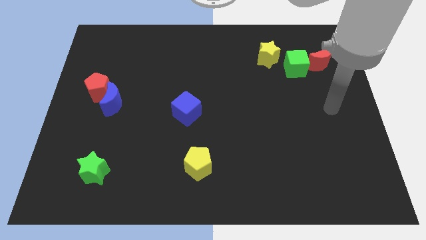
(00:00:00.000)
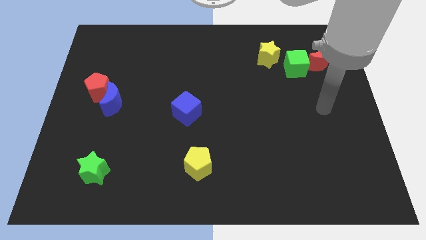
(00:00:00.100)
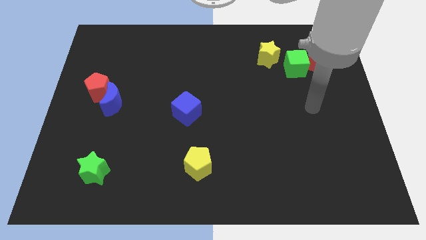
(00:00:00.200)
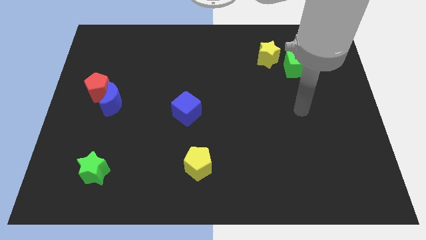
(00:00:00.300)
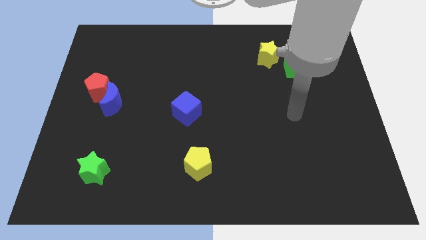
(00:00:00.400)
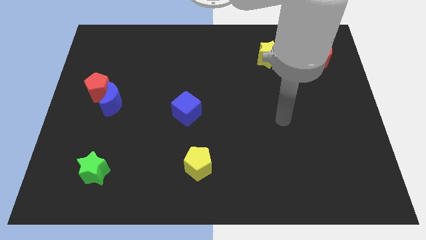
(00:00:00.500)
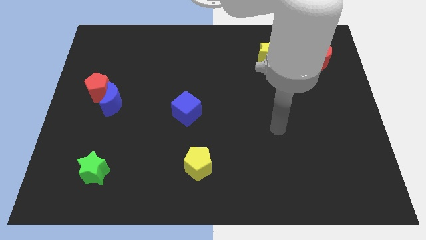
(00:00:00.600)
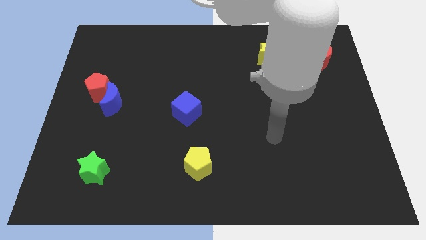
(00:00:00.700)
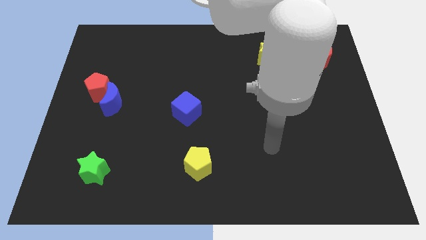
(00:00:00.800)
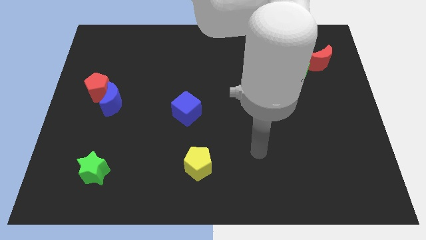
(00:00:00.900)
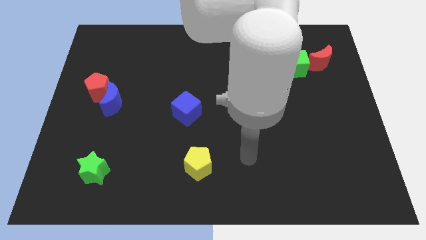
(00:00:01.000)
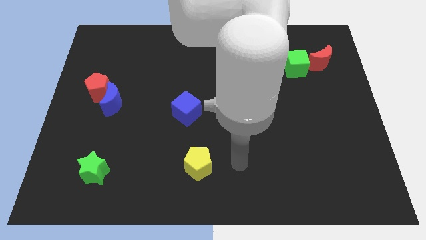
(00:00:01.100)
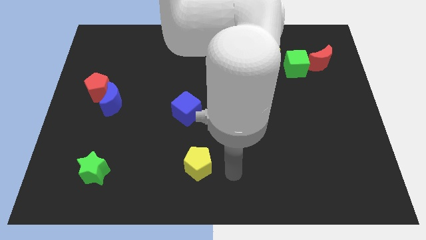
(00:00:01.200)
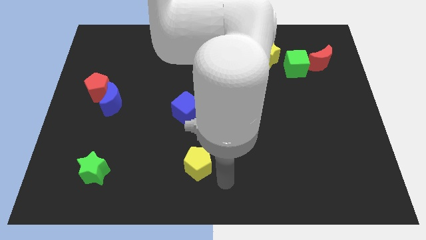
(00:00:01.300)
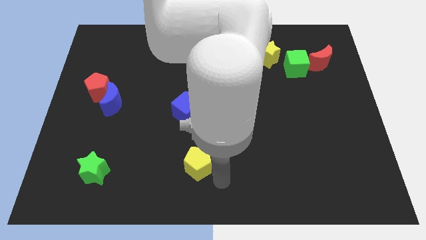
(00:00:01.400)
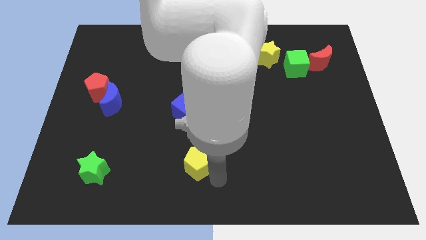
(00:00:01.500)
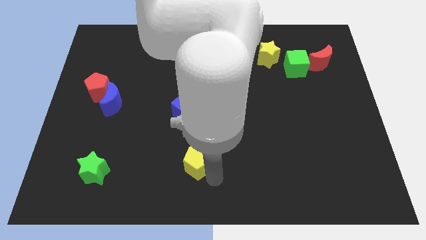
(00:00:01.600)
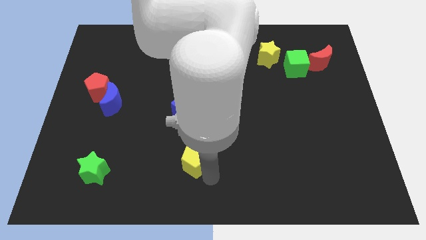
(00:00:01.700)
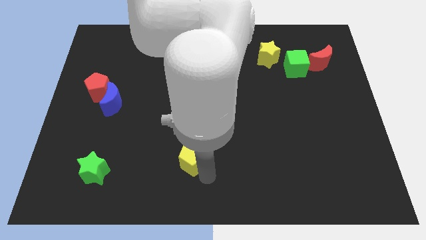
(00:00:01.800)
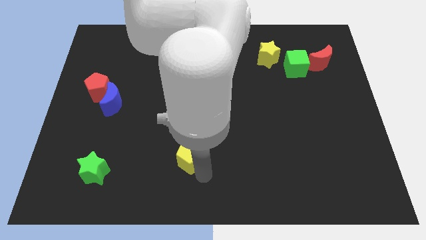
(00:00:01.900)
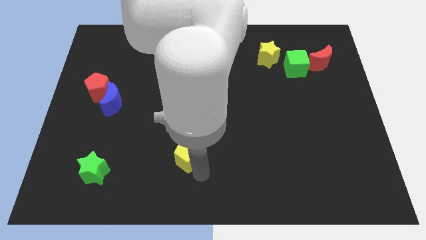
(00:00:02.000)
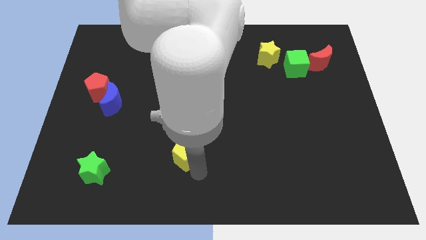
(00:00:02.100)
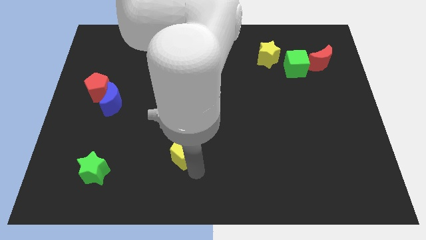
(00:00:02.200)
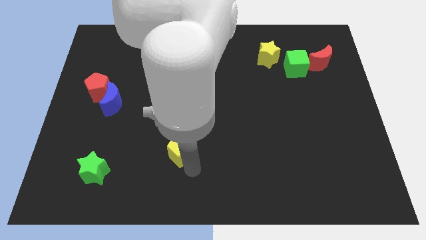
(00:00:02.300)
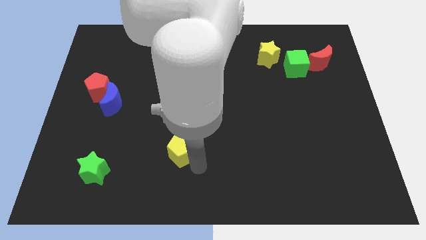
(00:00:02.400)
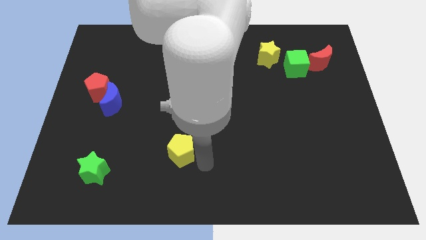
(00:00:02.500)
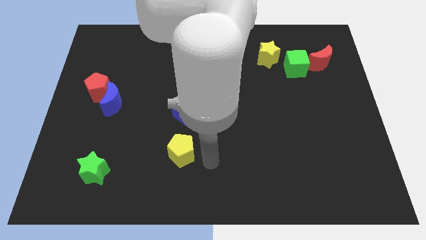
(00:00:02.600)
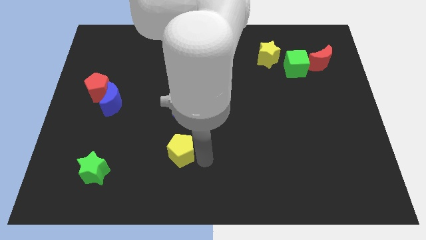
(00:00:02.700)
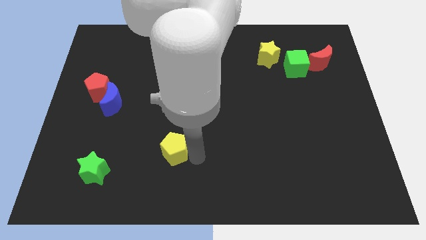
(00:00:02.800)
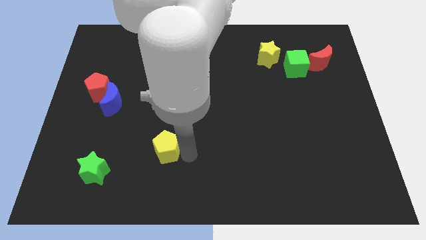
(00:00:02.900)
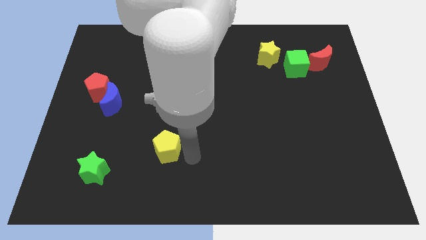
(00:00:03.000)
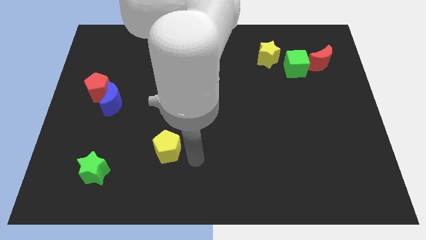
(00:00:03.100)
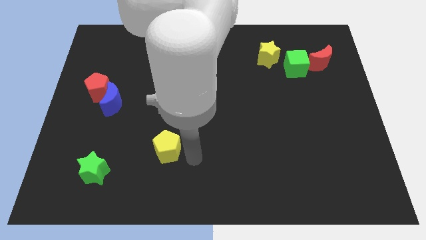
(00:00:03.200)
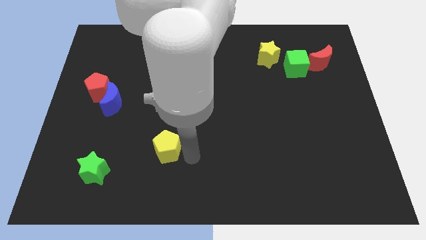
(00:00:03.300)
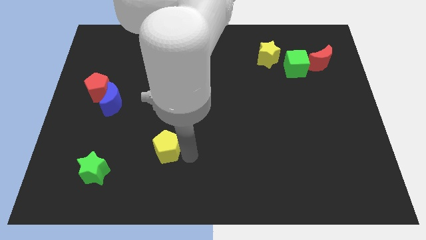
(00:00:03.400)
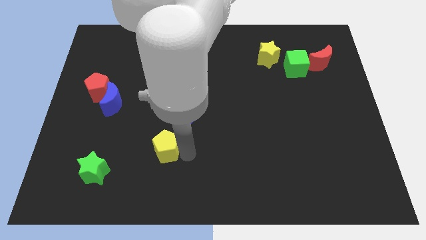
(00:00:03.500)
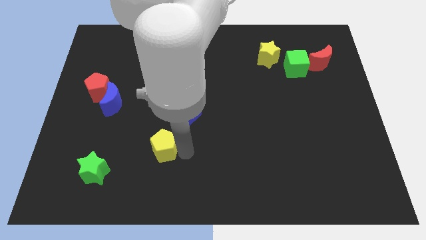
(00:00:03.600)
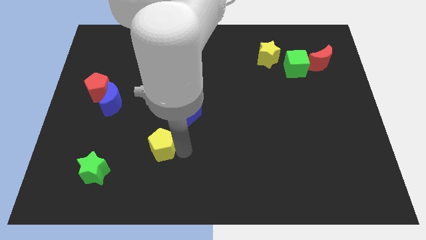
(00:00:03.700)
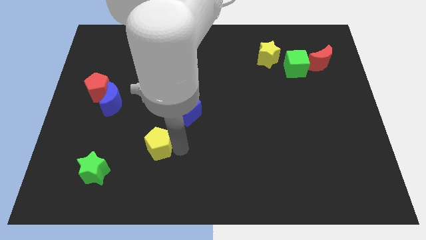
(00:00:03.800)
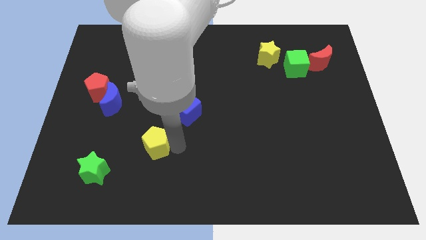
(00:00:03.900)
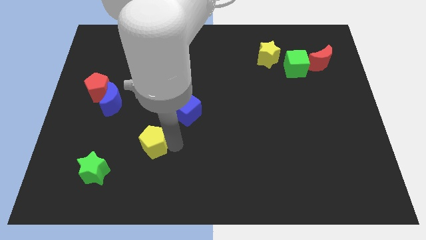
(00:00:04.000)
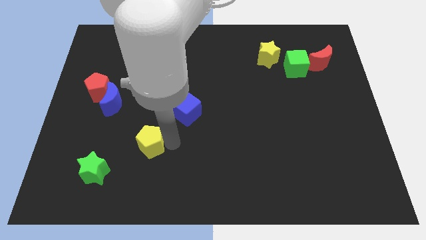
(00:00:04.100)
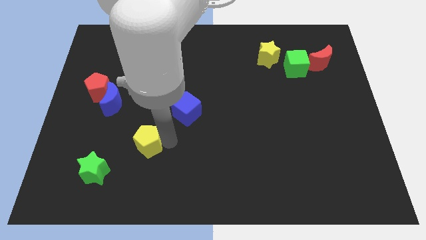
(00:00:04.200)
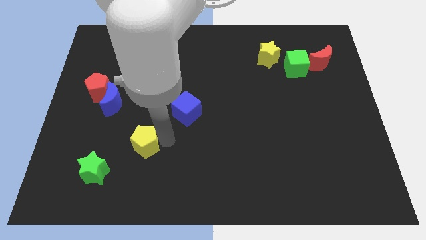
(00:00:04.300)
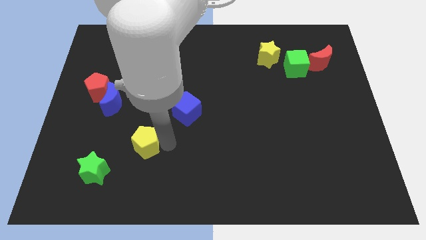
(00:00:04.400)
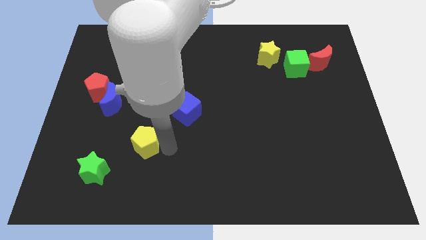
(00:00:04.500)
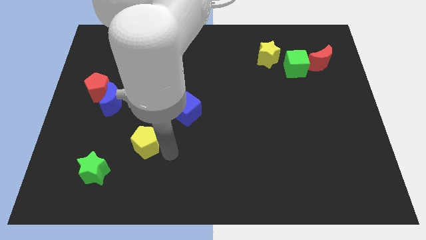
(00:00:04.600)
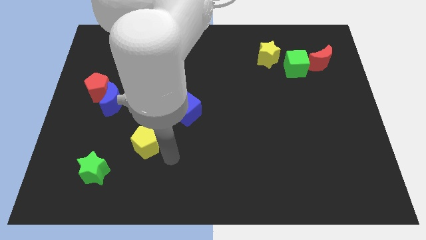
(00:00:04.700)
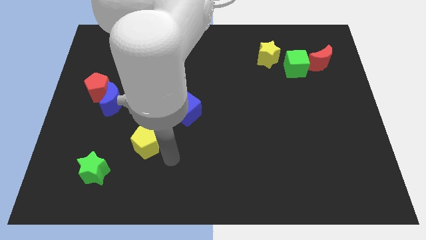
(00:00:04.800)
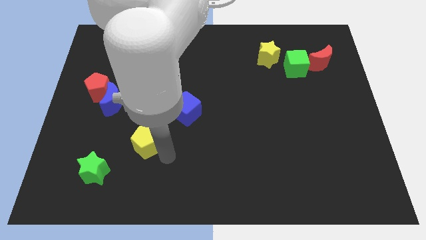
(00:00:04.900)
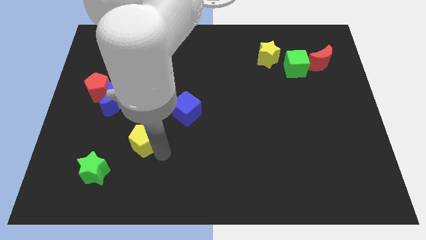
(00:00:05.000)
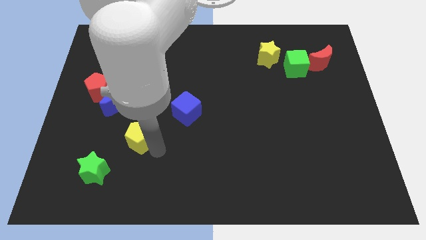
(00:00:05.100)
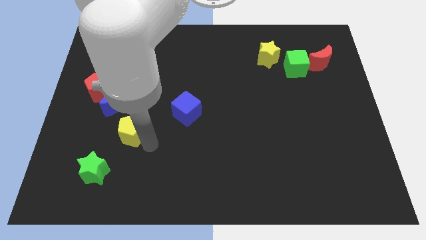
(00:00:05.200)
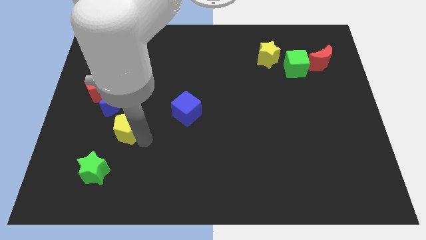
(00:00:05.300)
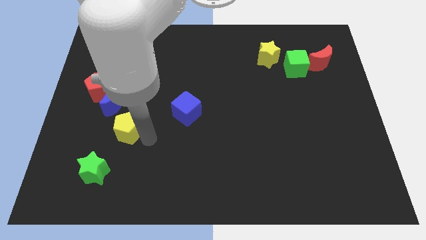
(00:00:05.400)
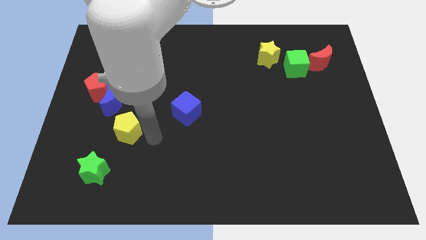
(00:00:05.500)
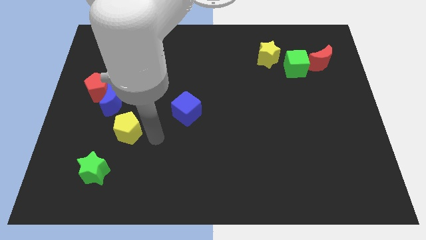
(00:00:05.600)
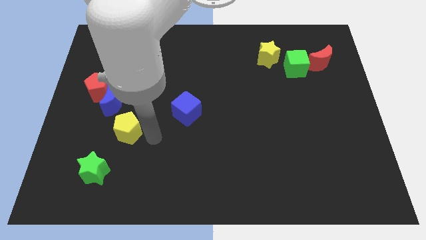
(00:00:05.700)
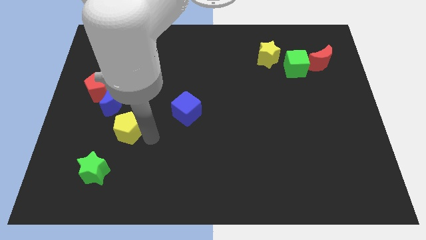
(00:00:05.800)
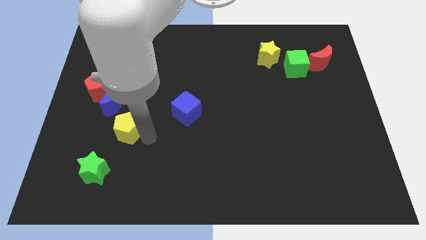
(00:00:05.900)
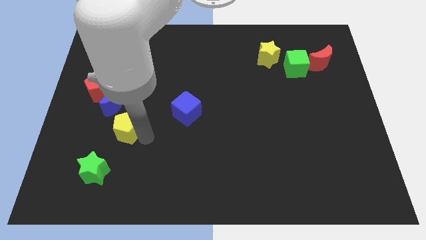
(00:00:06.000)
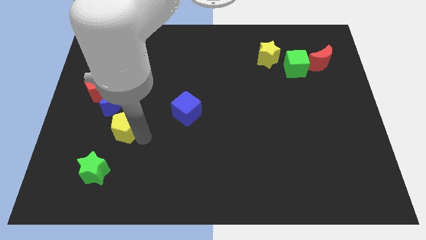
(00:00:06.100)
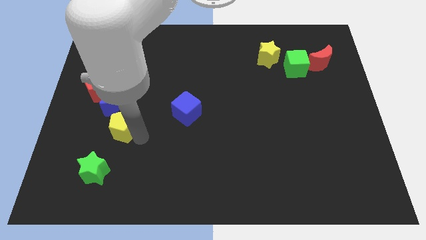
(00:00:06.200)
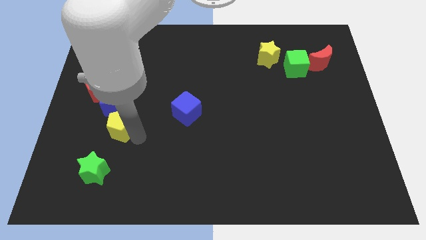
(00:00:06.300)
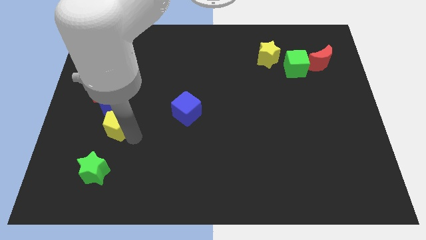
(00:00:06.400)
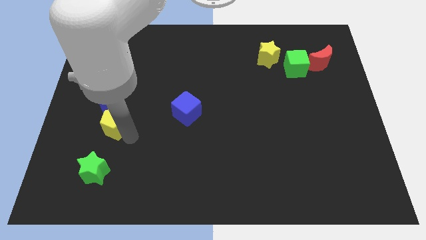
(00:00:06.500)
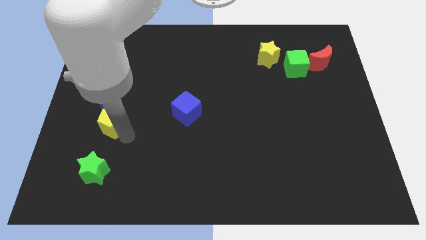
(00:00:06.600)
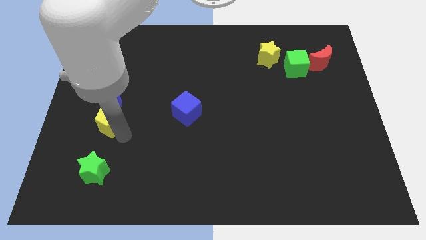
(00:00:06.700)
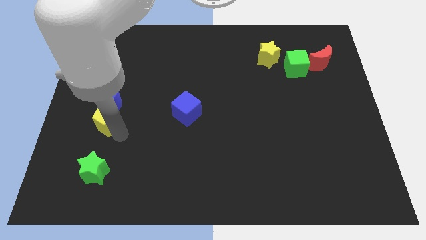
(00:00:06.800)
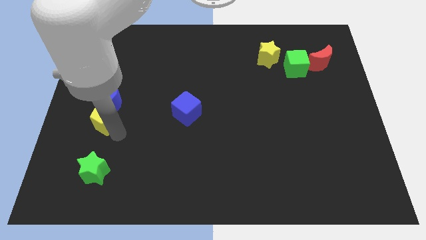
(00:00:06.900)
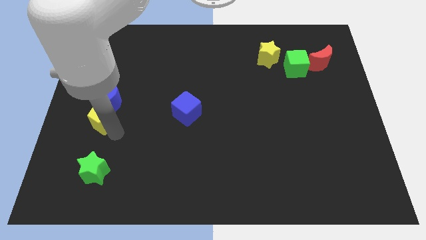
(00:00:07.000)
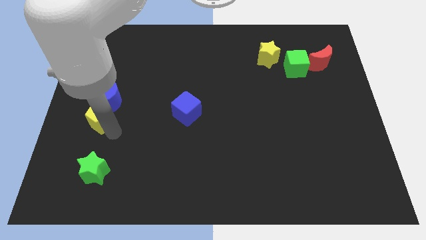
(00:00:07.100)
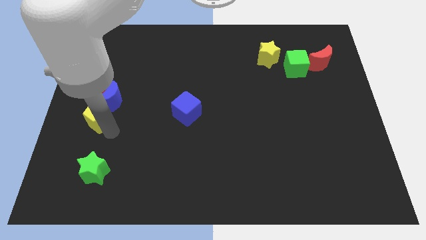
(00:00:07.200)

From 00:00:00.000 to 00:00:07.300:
slide the yellow pentagon to the left side of the board
